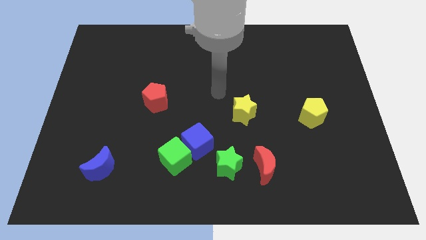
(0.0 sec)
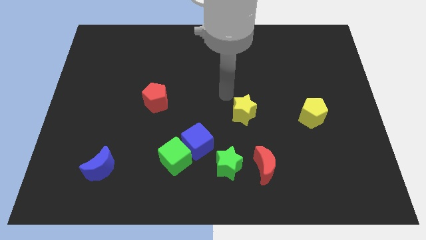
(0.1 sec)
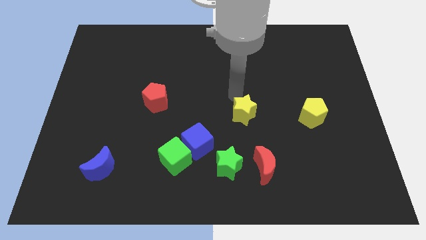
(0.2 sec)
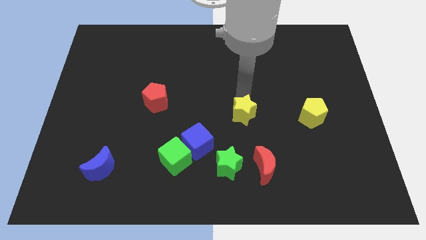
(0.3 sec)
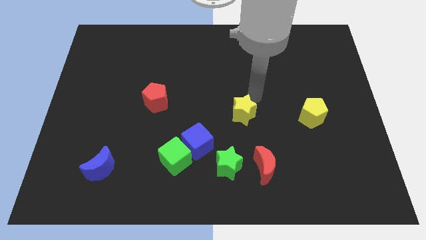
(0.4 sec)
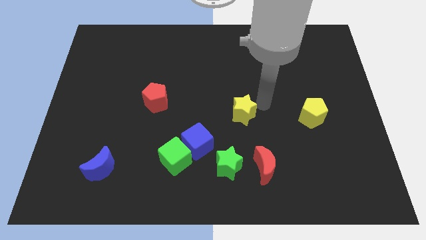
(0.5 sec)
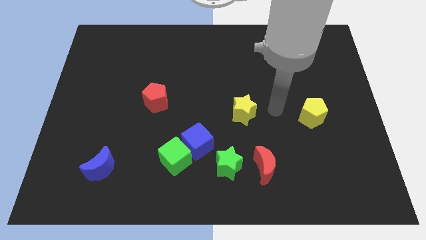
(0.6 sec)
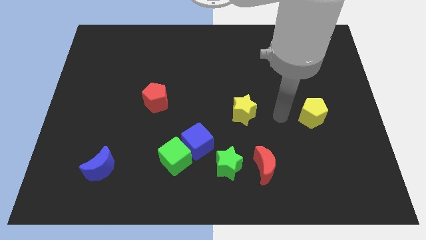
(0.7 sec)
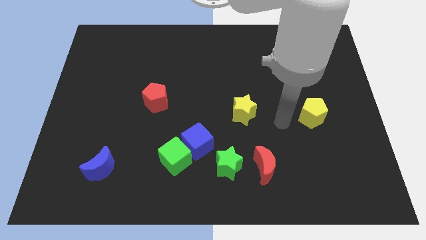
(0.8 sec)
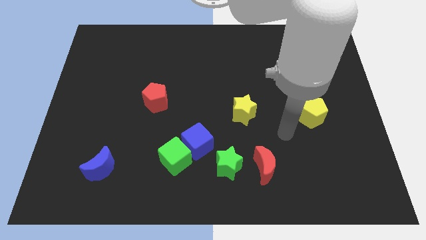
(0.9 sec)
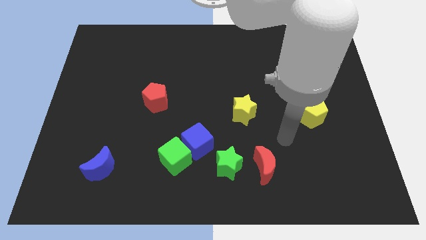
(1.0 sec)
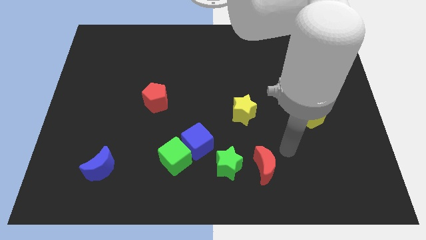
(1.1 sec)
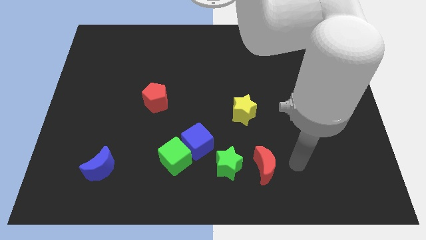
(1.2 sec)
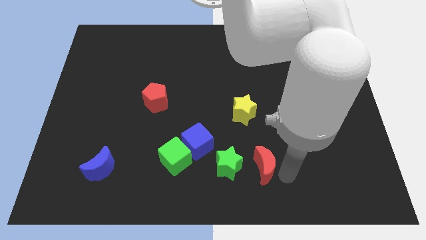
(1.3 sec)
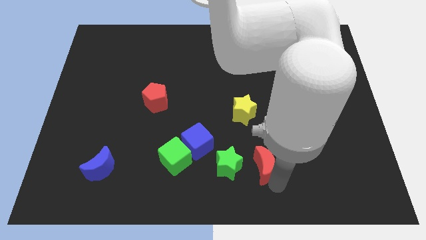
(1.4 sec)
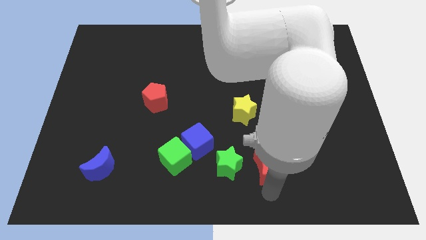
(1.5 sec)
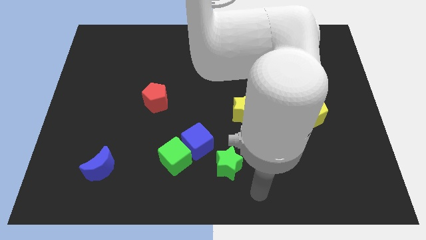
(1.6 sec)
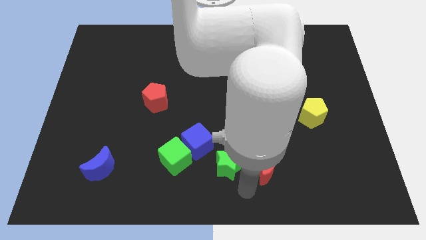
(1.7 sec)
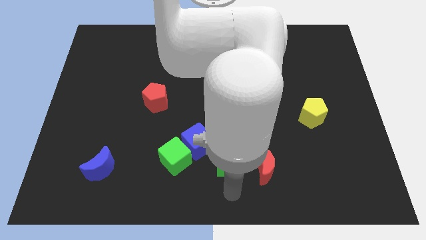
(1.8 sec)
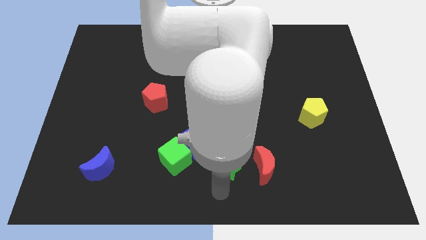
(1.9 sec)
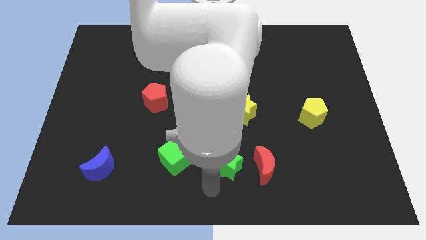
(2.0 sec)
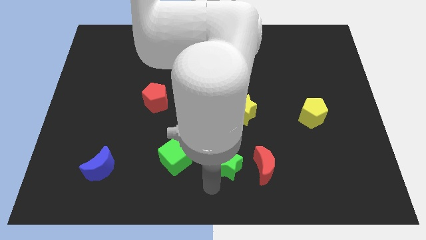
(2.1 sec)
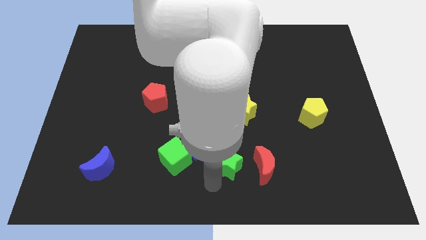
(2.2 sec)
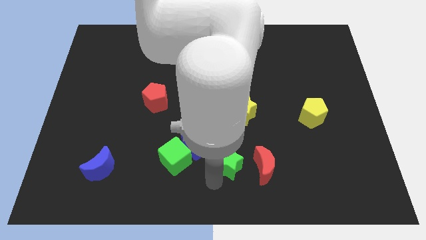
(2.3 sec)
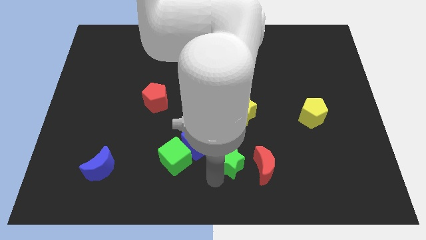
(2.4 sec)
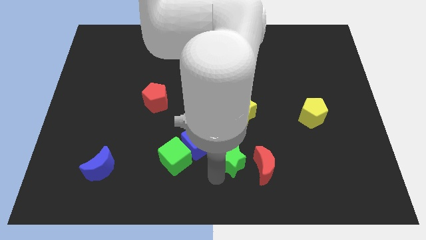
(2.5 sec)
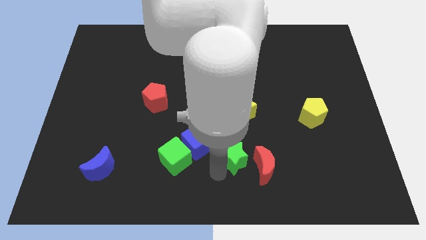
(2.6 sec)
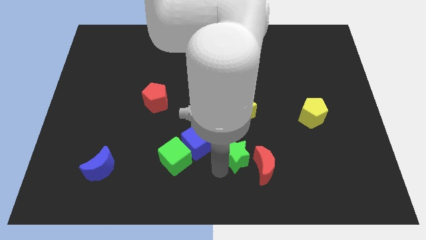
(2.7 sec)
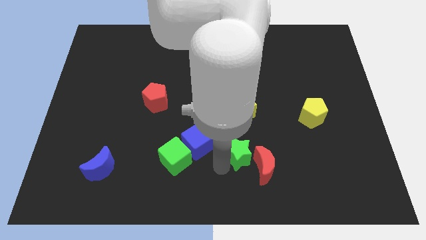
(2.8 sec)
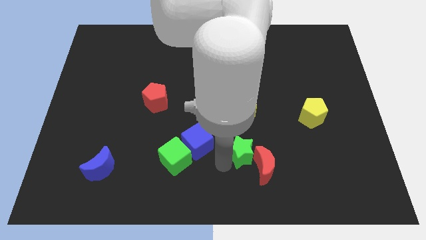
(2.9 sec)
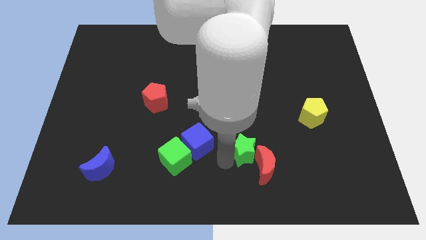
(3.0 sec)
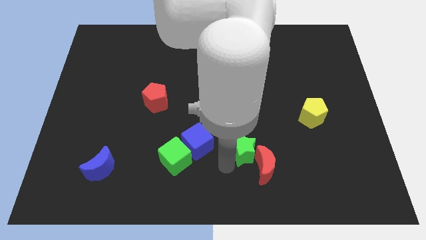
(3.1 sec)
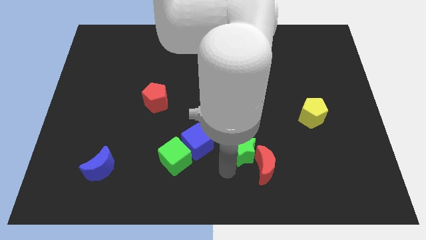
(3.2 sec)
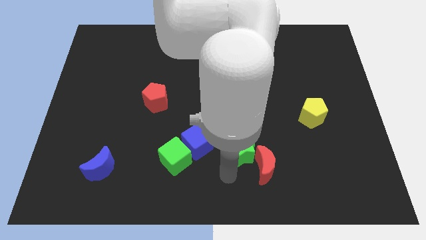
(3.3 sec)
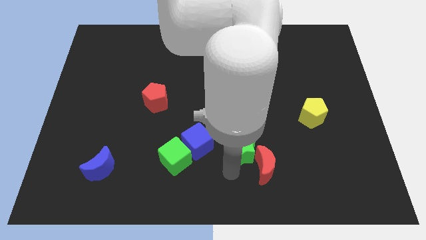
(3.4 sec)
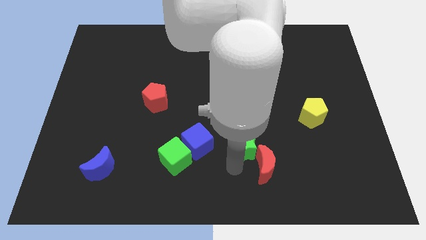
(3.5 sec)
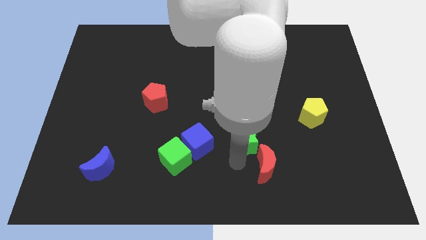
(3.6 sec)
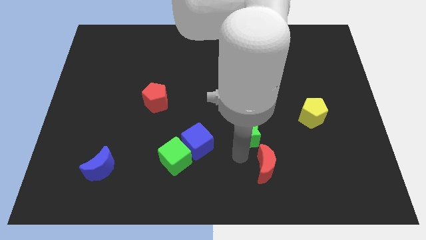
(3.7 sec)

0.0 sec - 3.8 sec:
slightly push the green star upwards and right

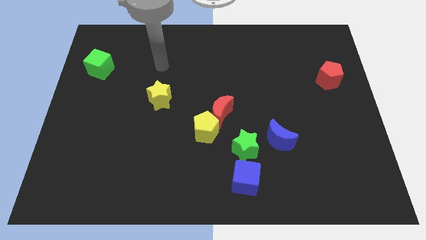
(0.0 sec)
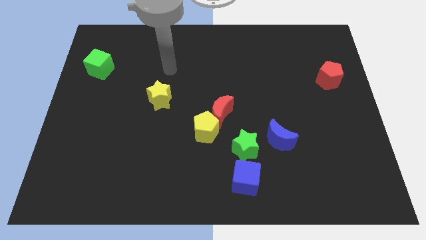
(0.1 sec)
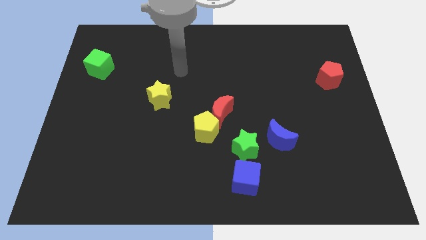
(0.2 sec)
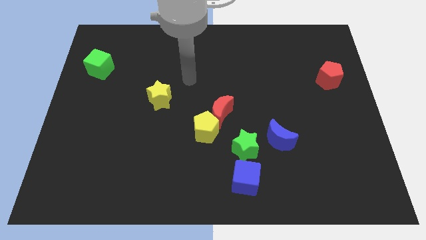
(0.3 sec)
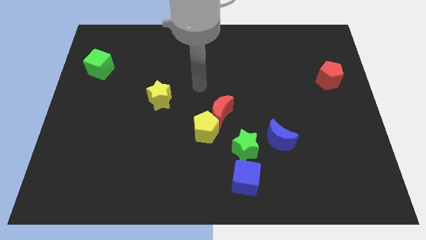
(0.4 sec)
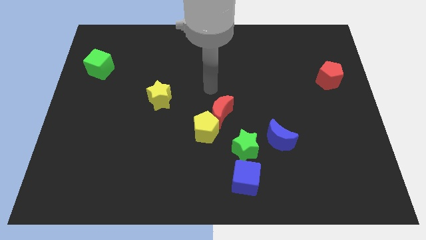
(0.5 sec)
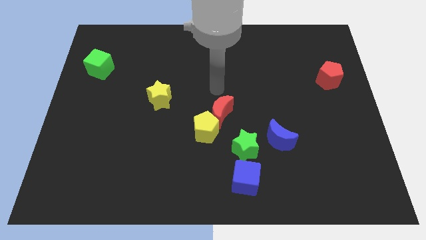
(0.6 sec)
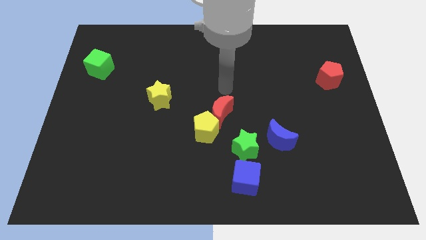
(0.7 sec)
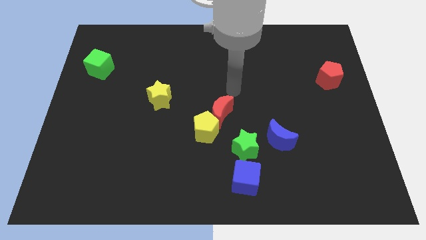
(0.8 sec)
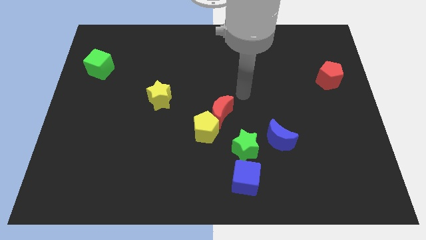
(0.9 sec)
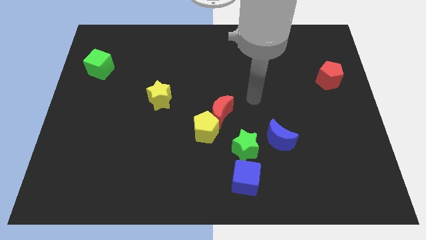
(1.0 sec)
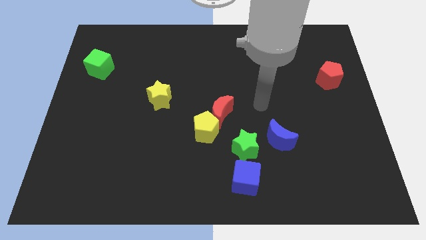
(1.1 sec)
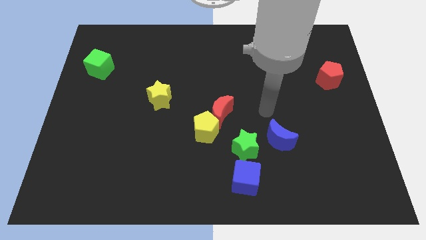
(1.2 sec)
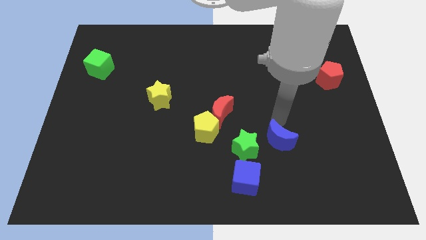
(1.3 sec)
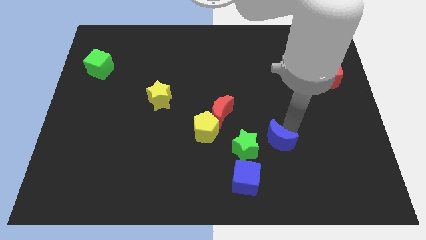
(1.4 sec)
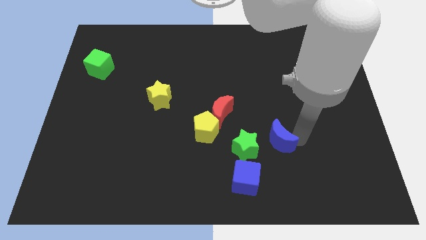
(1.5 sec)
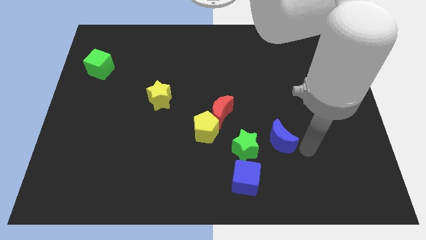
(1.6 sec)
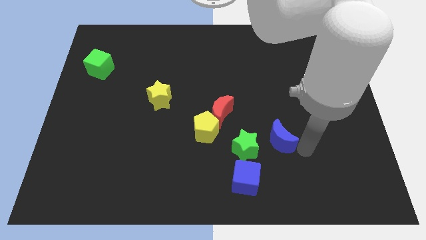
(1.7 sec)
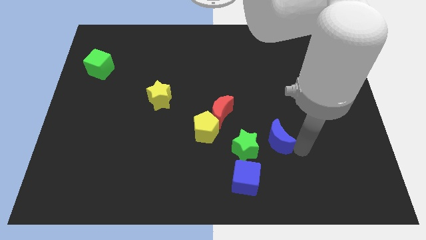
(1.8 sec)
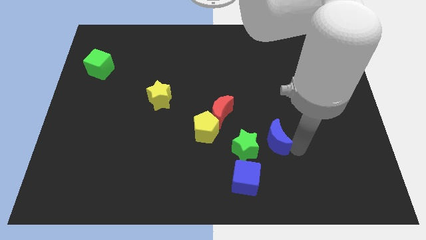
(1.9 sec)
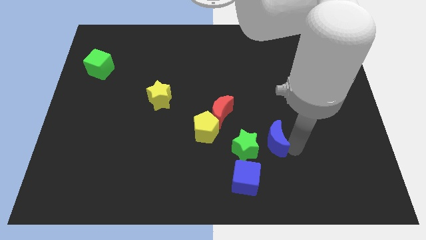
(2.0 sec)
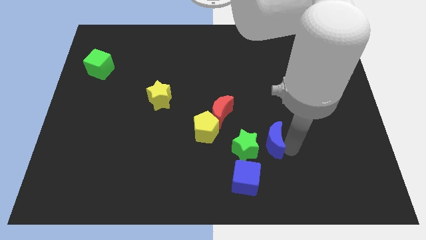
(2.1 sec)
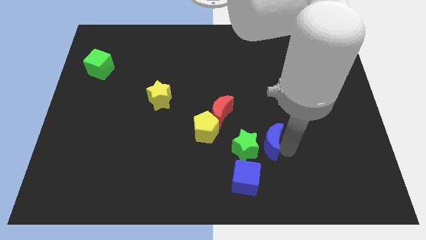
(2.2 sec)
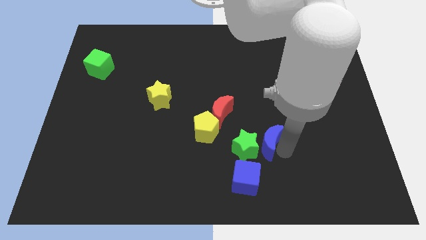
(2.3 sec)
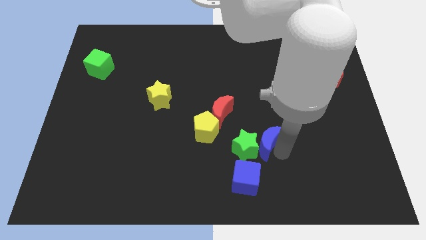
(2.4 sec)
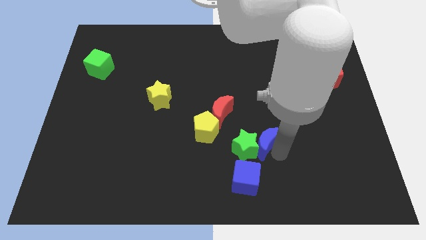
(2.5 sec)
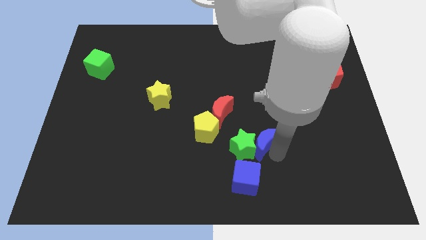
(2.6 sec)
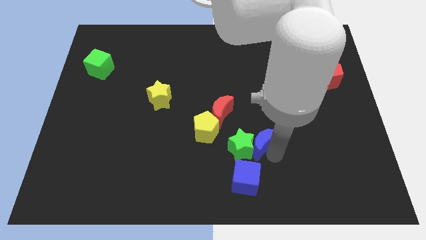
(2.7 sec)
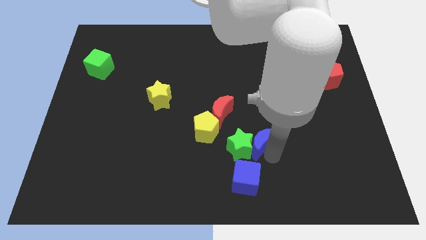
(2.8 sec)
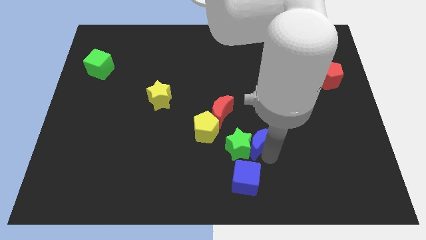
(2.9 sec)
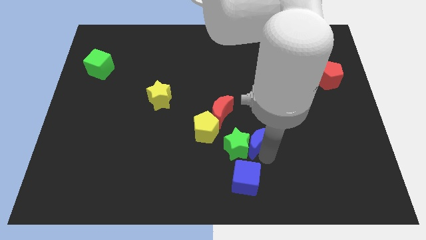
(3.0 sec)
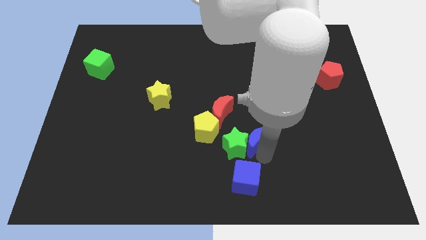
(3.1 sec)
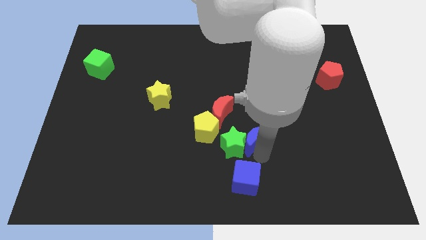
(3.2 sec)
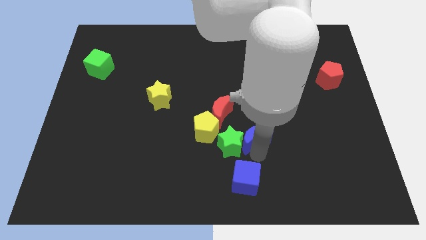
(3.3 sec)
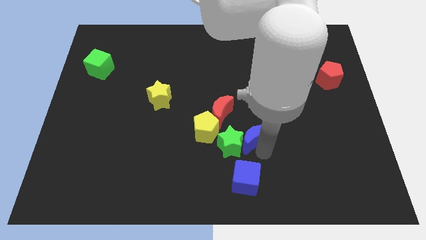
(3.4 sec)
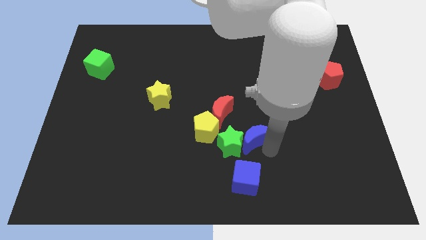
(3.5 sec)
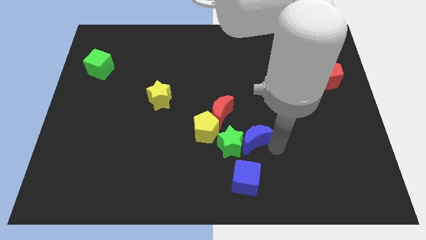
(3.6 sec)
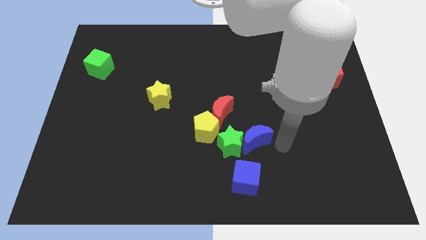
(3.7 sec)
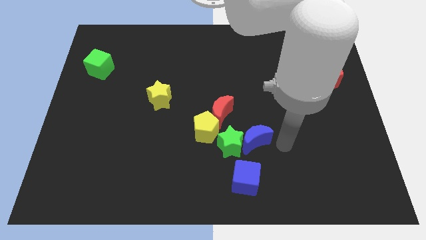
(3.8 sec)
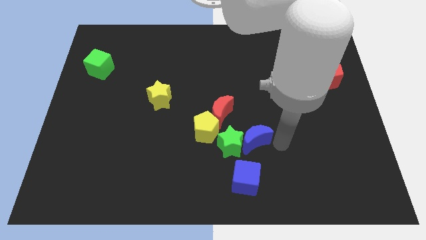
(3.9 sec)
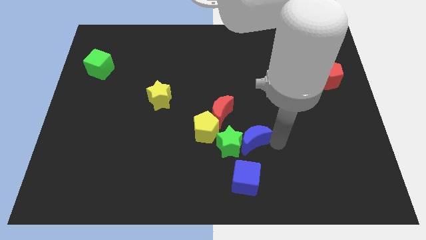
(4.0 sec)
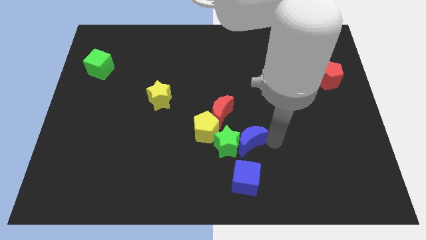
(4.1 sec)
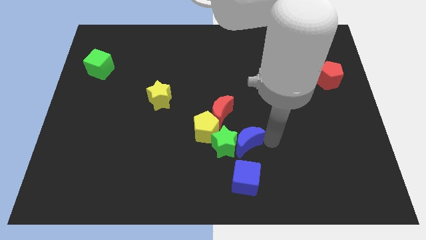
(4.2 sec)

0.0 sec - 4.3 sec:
slightly move the blue moon to the left

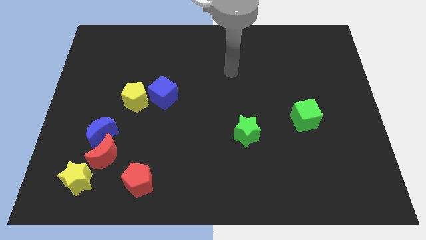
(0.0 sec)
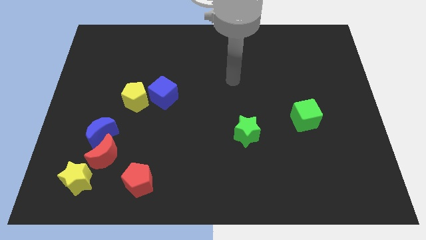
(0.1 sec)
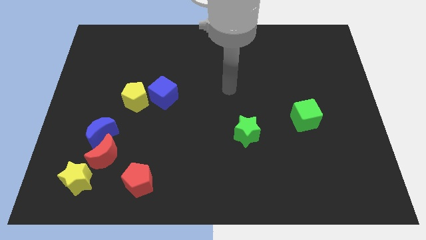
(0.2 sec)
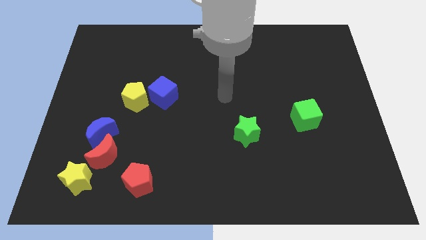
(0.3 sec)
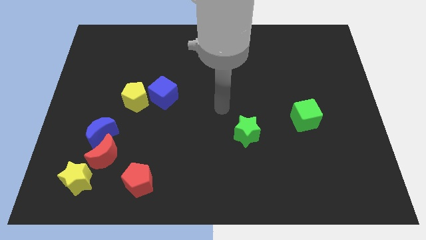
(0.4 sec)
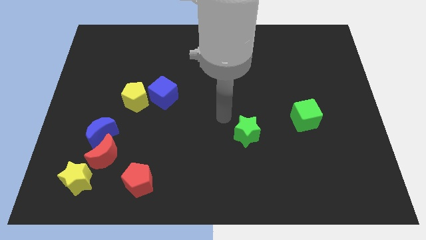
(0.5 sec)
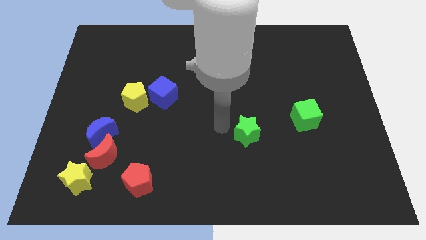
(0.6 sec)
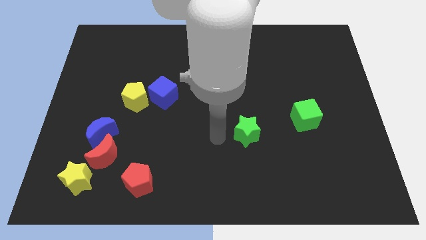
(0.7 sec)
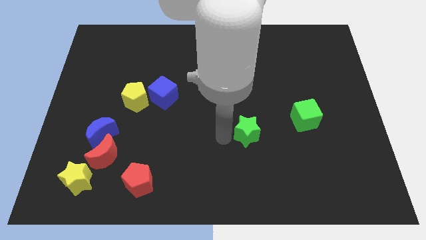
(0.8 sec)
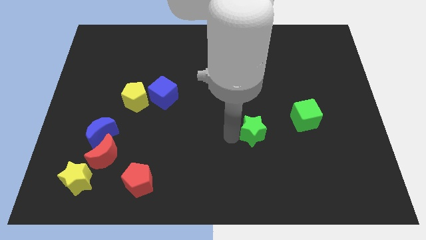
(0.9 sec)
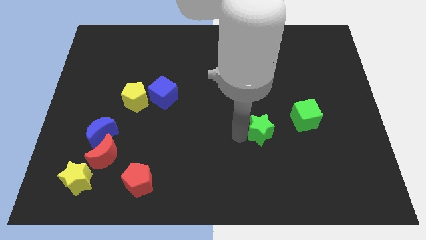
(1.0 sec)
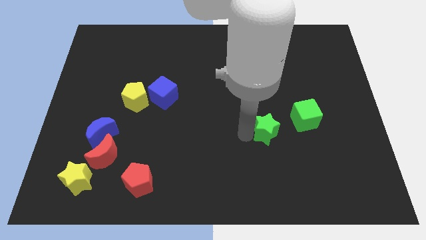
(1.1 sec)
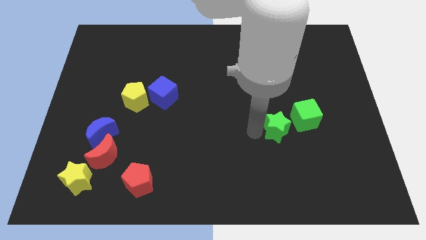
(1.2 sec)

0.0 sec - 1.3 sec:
move the green star right a little bit
